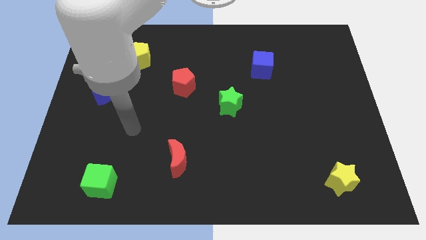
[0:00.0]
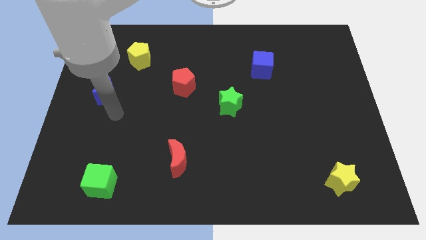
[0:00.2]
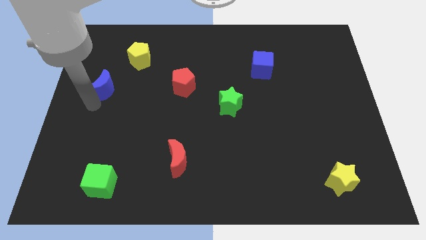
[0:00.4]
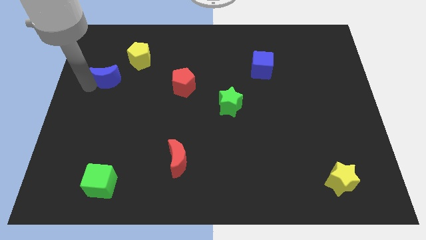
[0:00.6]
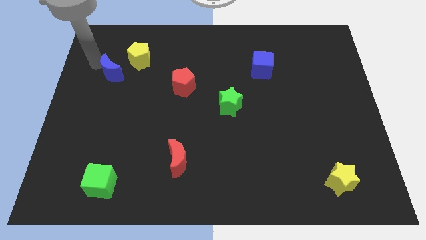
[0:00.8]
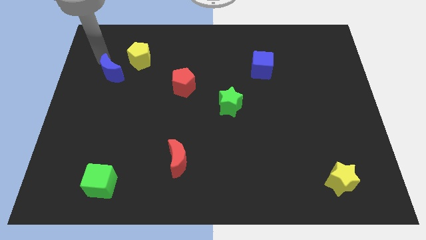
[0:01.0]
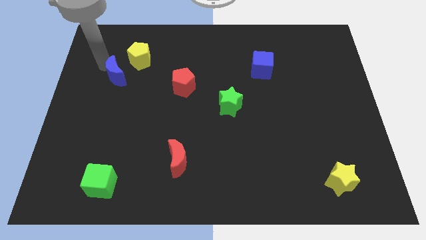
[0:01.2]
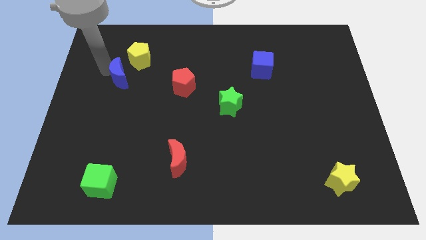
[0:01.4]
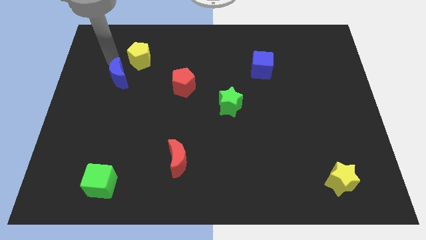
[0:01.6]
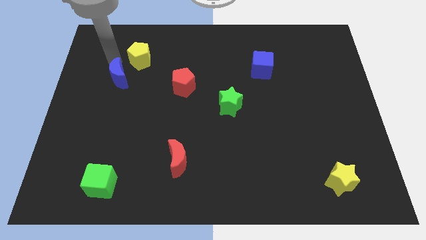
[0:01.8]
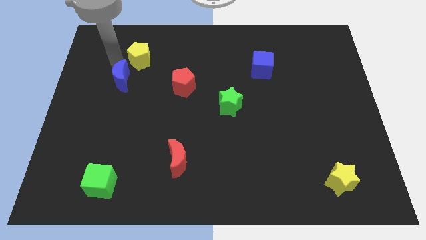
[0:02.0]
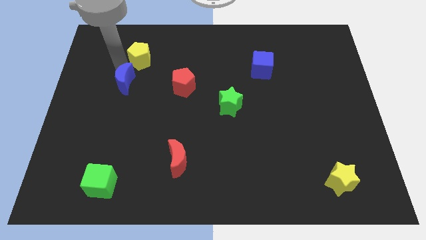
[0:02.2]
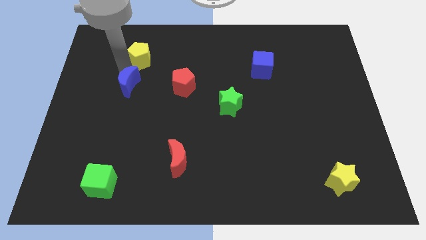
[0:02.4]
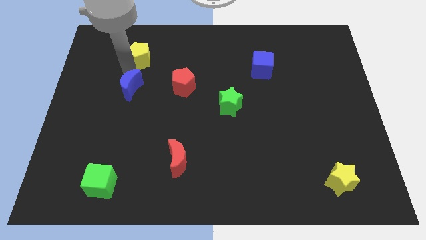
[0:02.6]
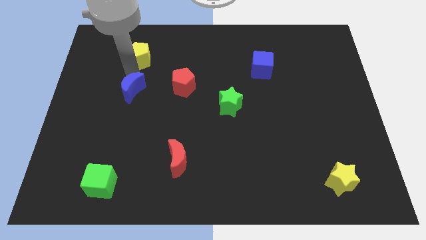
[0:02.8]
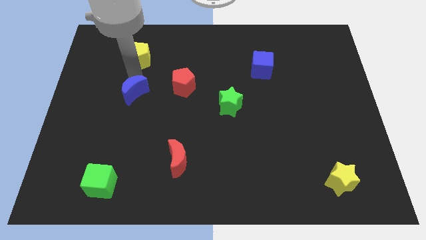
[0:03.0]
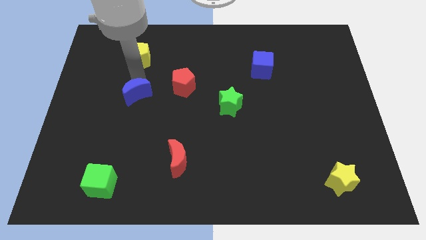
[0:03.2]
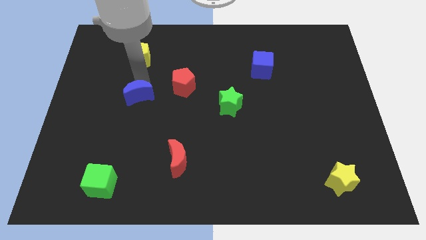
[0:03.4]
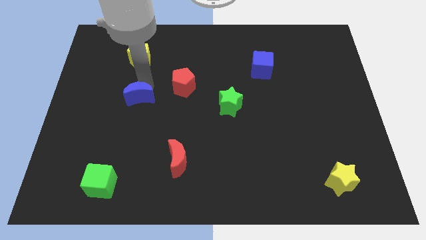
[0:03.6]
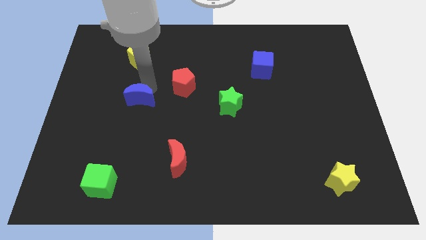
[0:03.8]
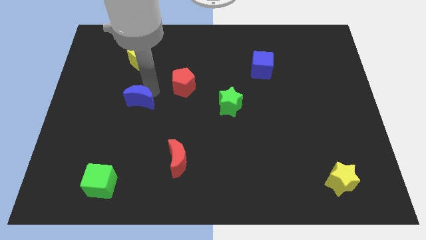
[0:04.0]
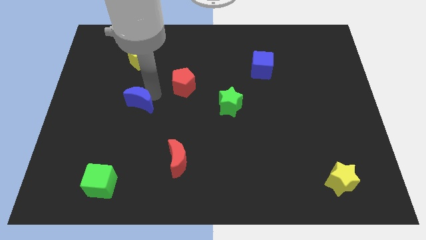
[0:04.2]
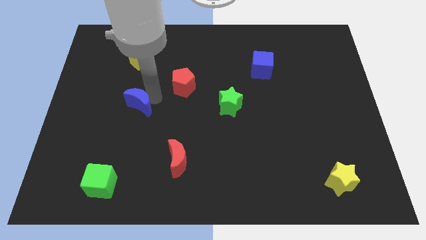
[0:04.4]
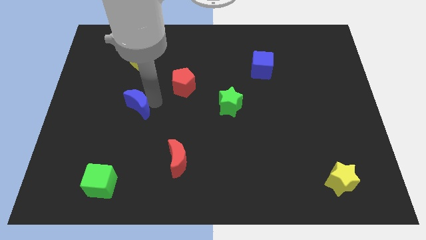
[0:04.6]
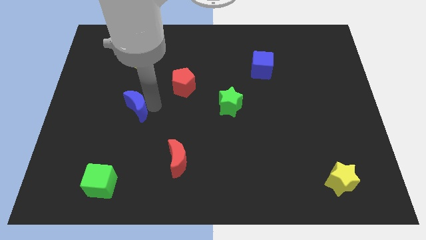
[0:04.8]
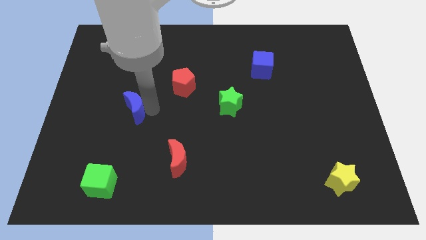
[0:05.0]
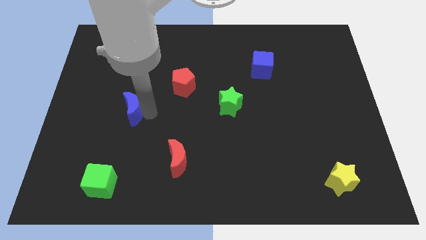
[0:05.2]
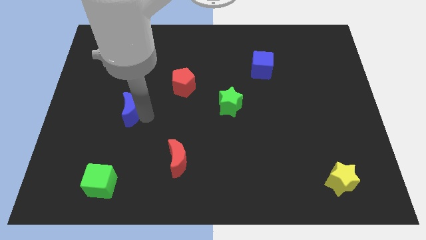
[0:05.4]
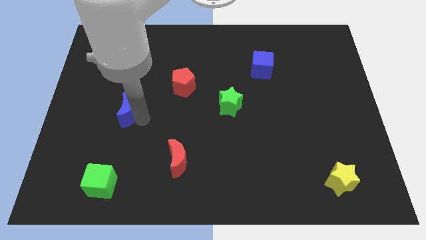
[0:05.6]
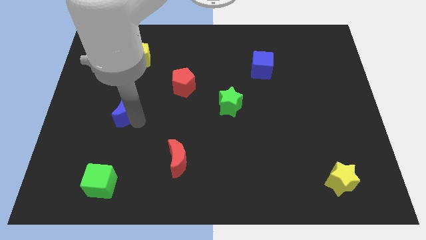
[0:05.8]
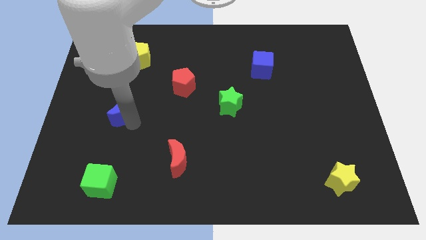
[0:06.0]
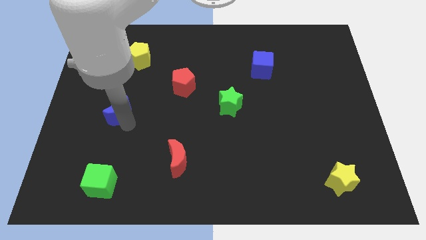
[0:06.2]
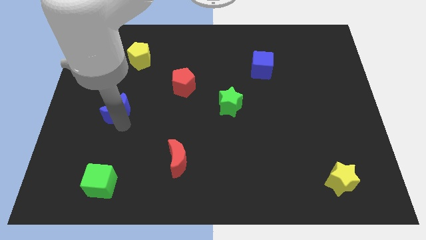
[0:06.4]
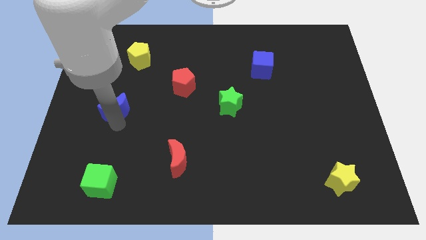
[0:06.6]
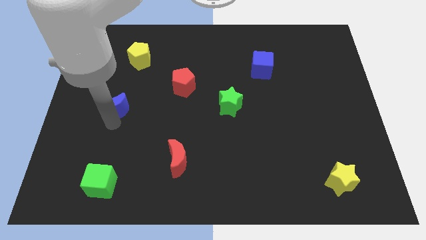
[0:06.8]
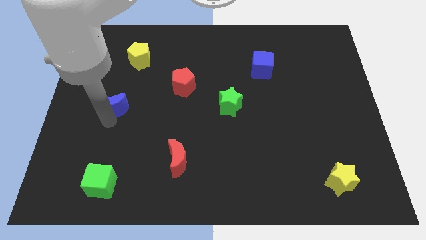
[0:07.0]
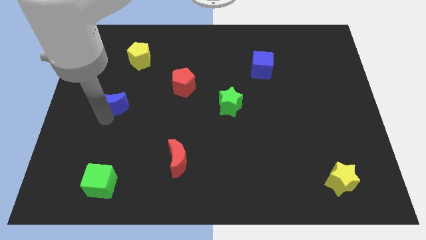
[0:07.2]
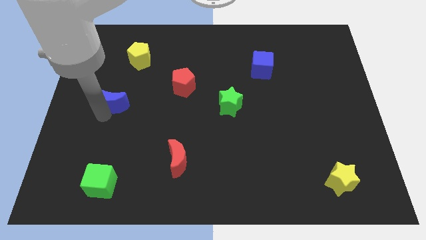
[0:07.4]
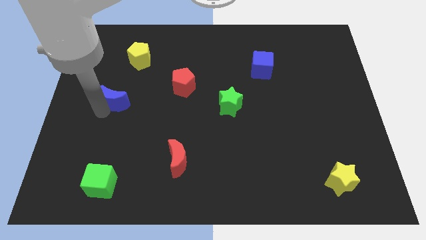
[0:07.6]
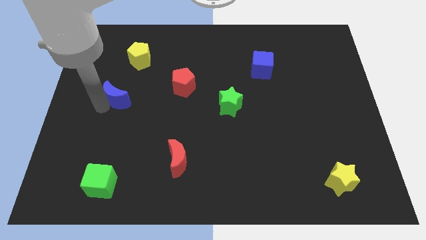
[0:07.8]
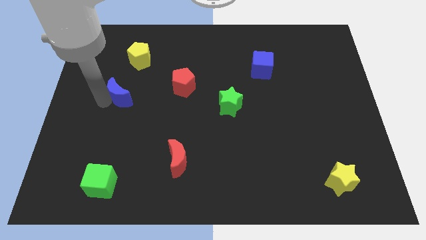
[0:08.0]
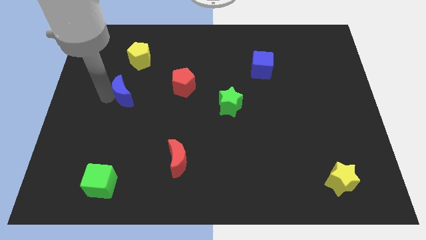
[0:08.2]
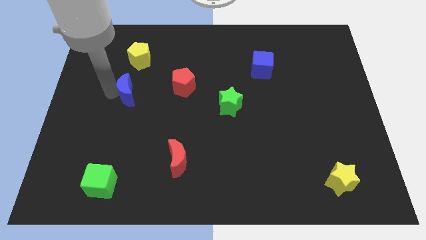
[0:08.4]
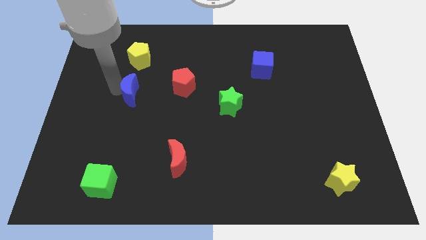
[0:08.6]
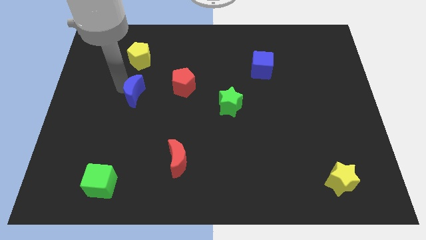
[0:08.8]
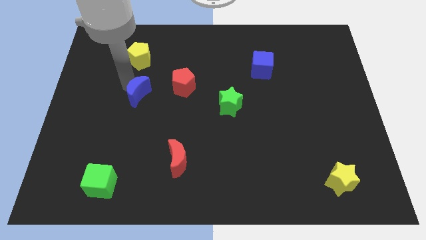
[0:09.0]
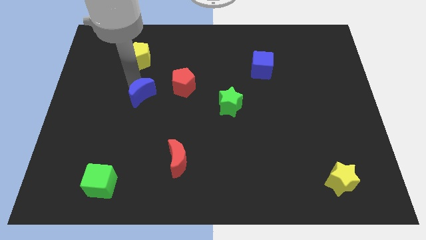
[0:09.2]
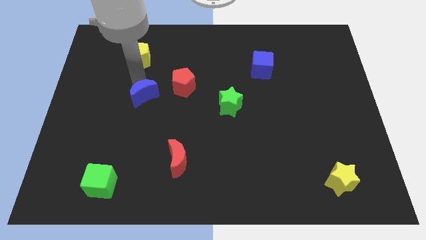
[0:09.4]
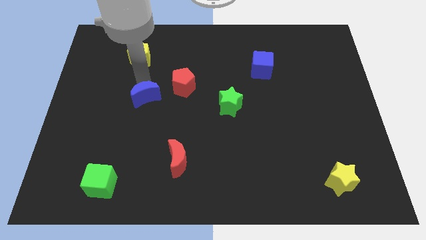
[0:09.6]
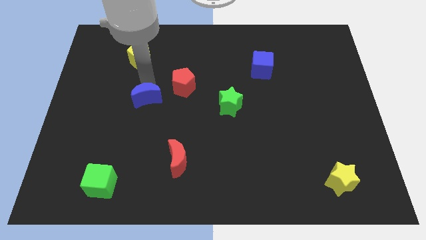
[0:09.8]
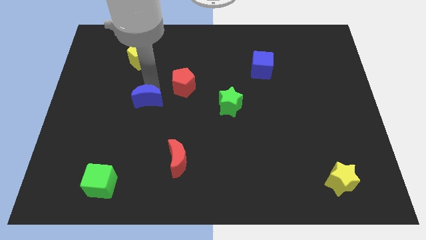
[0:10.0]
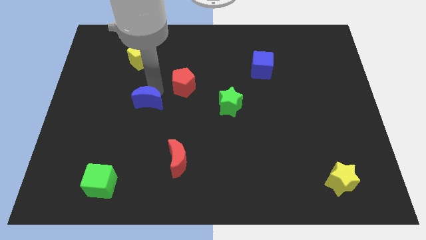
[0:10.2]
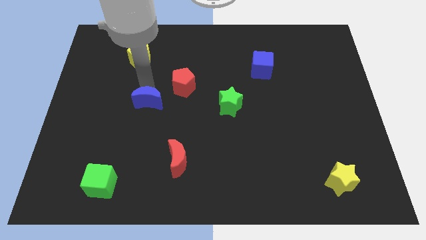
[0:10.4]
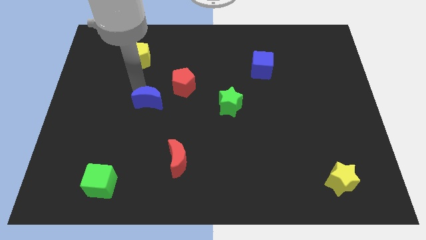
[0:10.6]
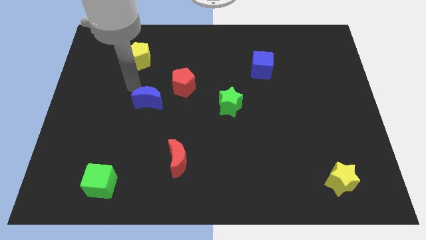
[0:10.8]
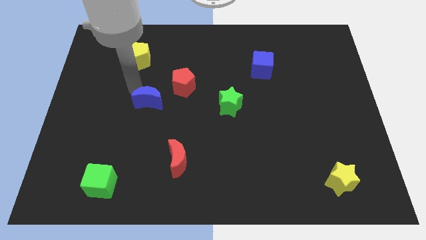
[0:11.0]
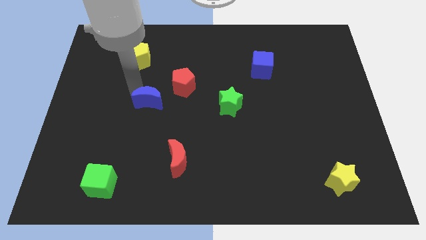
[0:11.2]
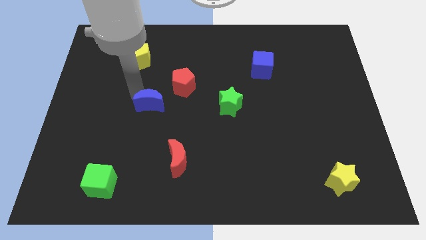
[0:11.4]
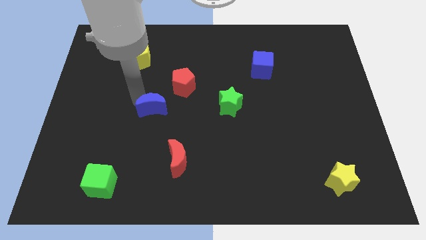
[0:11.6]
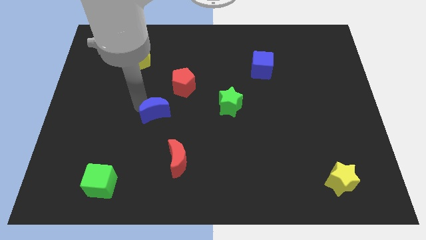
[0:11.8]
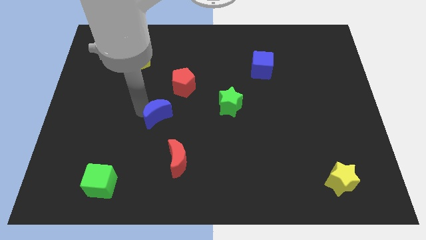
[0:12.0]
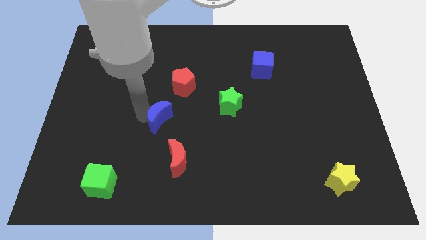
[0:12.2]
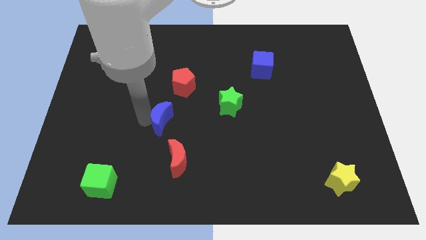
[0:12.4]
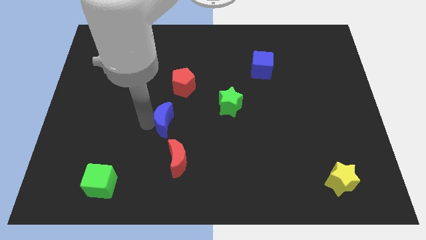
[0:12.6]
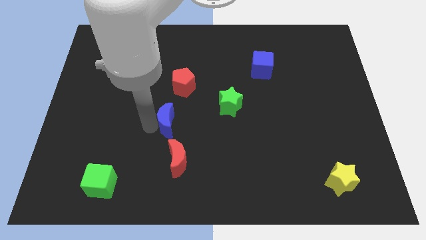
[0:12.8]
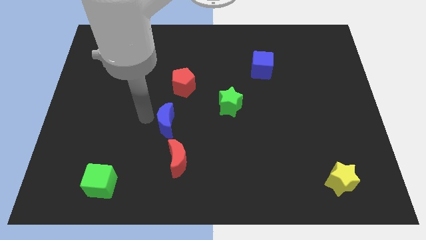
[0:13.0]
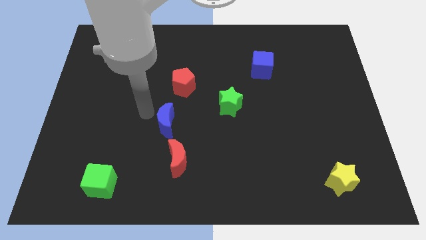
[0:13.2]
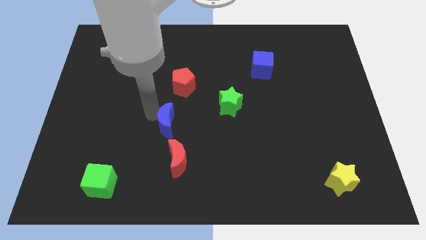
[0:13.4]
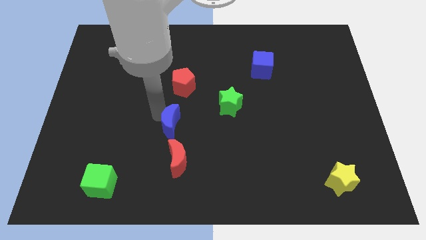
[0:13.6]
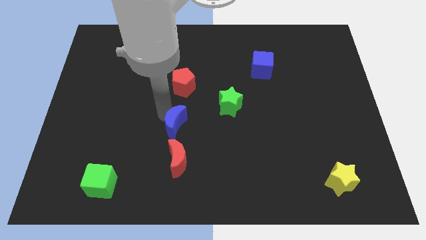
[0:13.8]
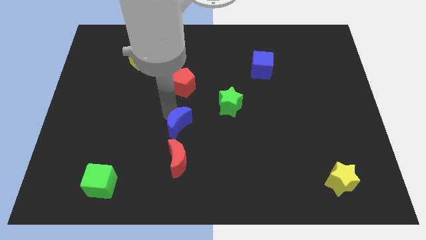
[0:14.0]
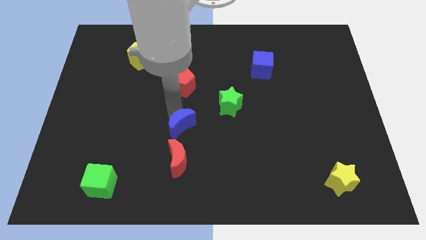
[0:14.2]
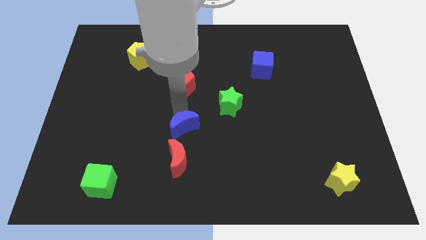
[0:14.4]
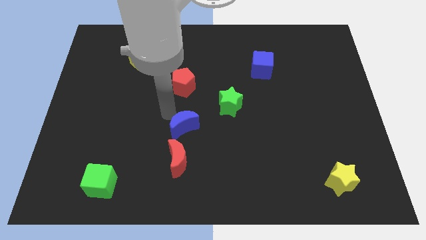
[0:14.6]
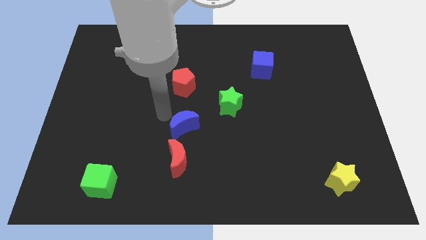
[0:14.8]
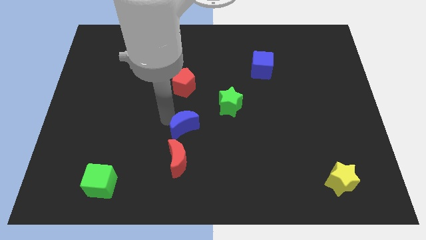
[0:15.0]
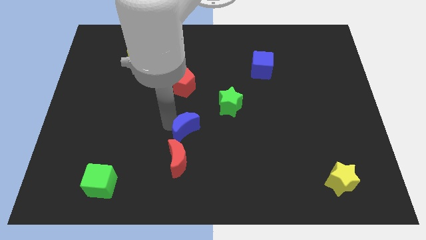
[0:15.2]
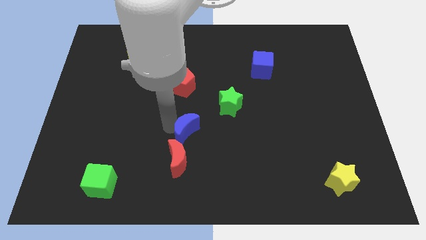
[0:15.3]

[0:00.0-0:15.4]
move the blue moon diagonally up and to the right of the red moon
